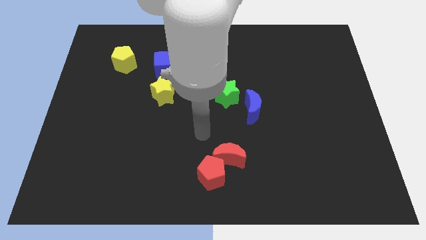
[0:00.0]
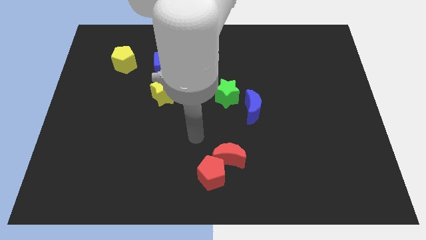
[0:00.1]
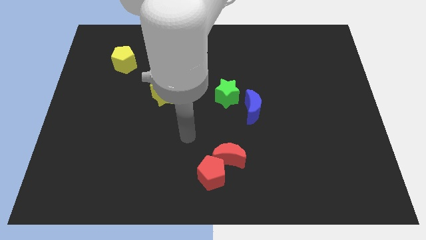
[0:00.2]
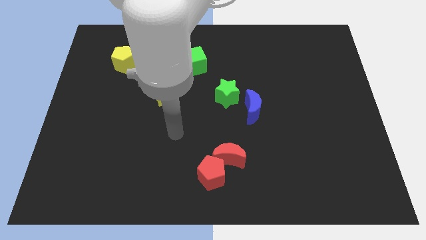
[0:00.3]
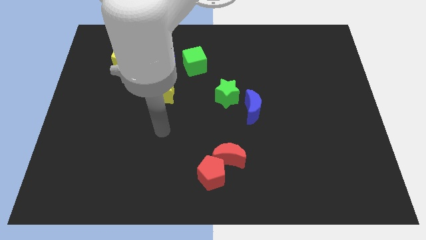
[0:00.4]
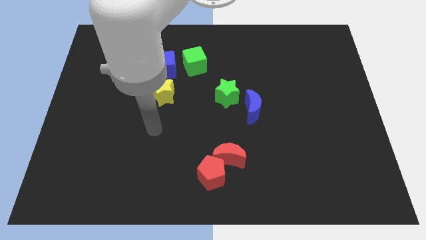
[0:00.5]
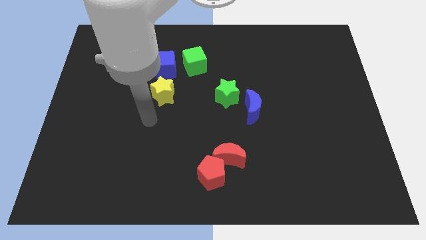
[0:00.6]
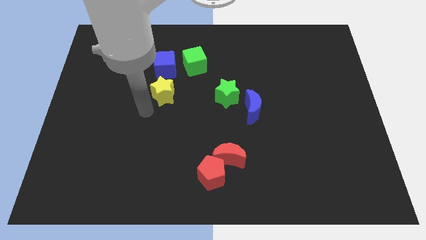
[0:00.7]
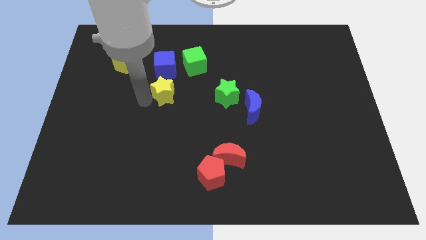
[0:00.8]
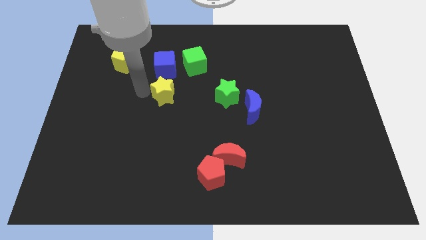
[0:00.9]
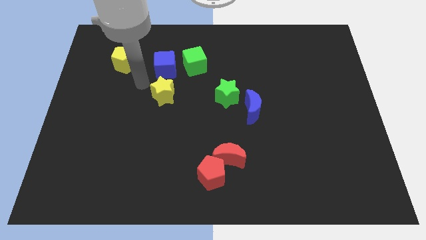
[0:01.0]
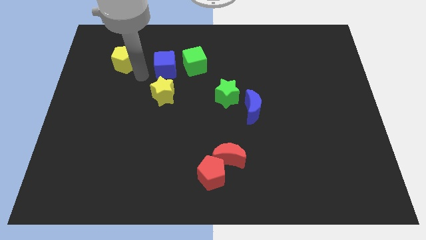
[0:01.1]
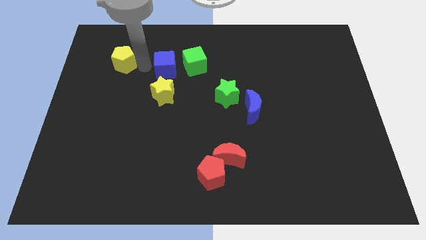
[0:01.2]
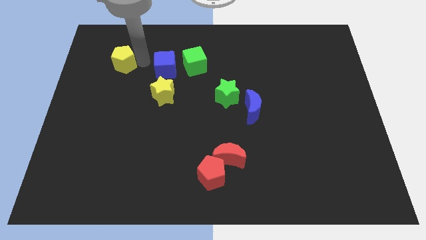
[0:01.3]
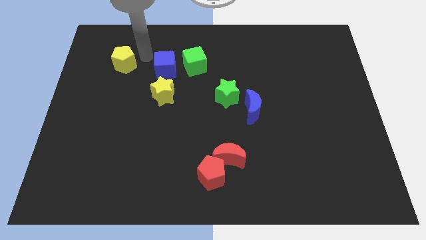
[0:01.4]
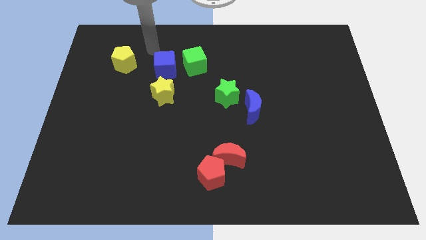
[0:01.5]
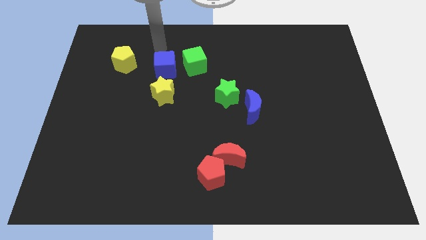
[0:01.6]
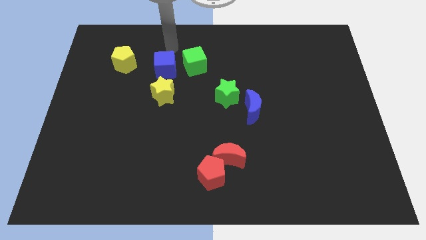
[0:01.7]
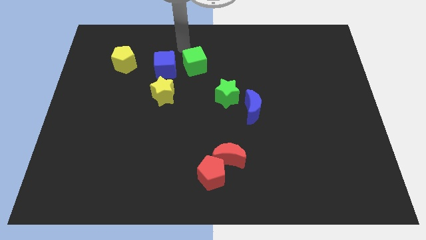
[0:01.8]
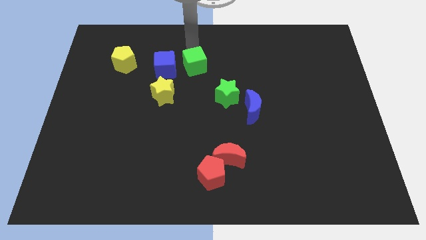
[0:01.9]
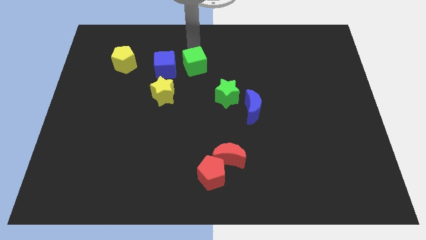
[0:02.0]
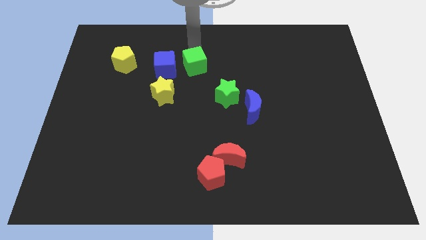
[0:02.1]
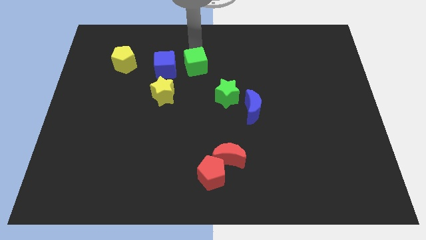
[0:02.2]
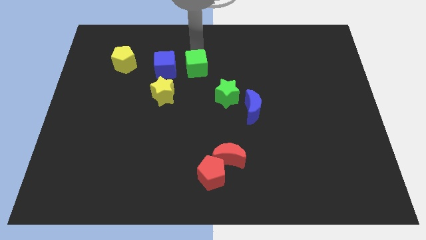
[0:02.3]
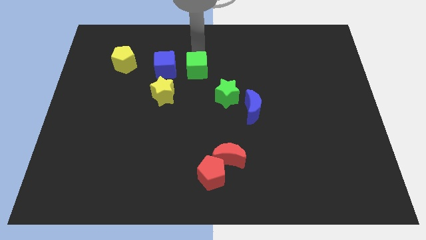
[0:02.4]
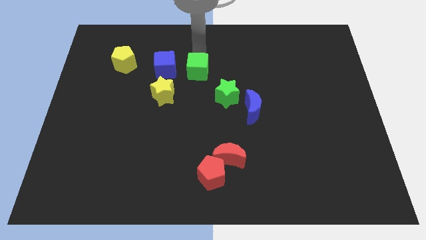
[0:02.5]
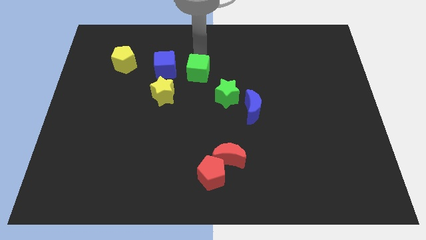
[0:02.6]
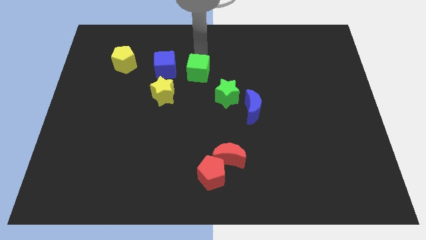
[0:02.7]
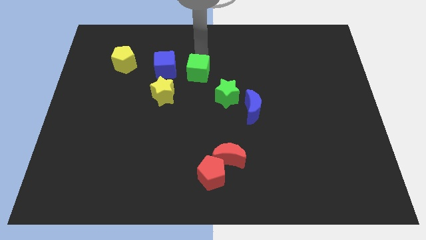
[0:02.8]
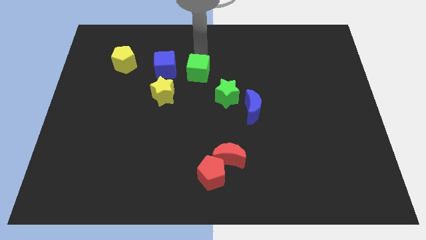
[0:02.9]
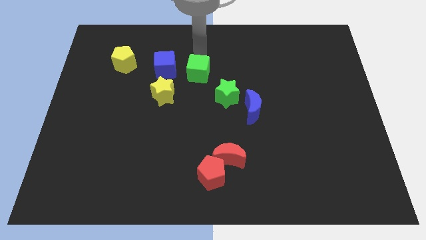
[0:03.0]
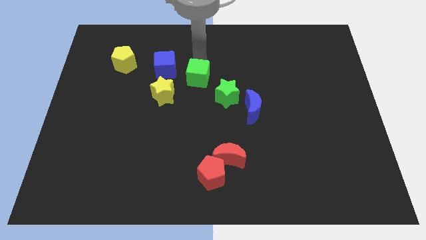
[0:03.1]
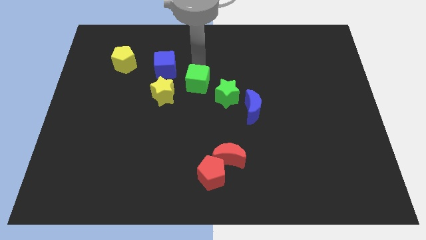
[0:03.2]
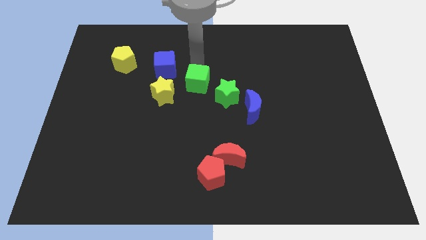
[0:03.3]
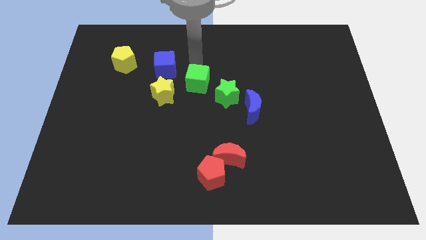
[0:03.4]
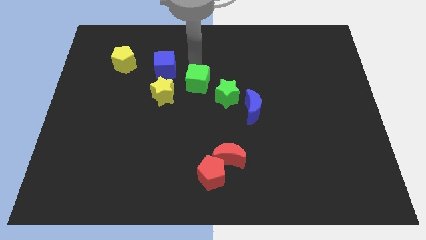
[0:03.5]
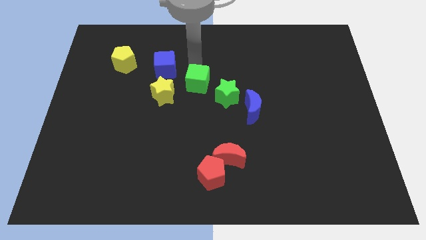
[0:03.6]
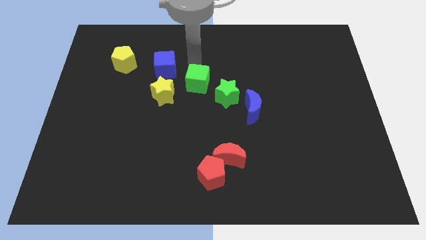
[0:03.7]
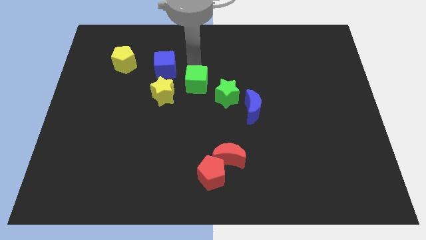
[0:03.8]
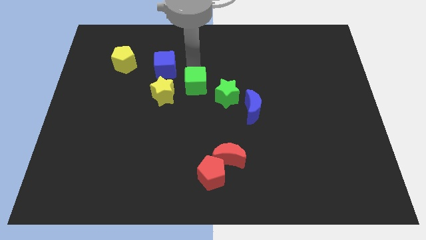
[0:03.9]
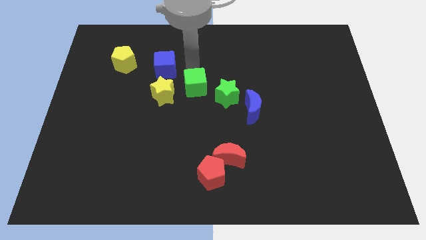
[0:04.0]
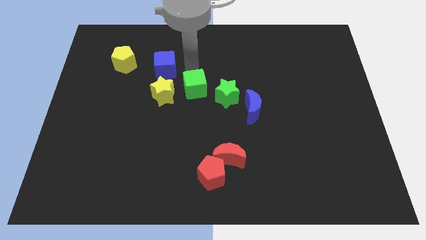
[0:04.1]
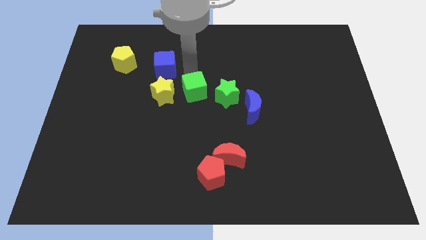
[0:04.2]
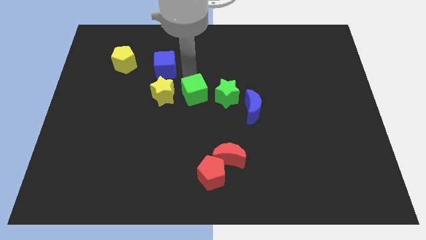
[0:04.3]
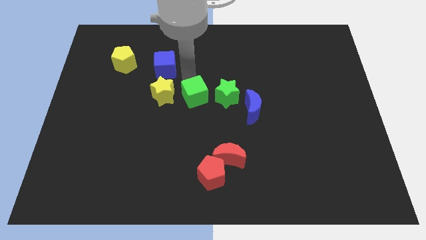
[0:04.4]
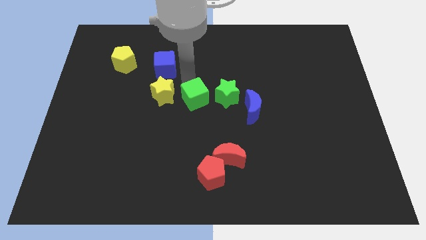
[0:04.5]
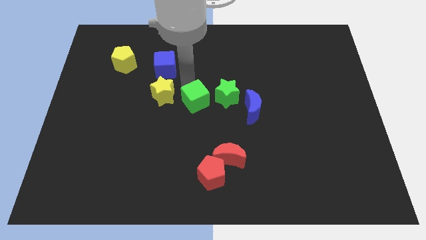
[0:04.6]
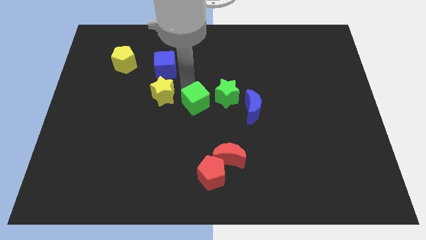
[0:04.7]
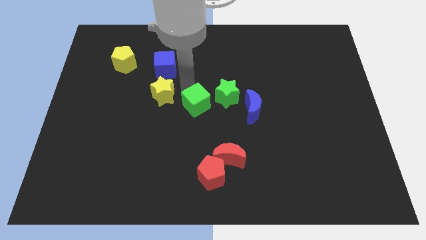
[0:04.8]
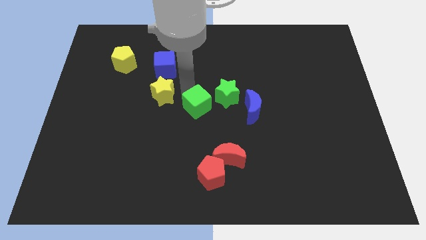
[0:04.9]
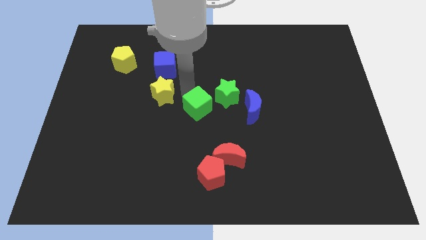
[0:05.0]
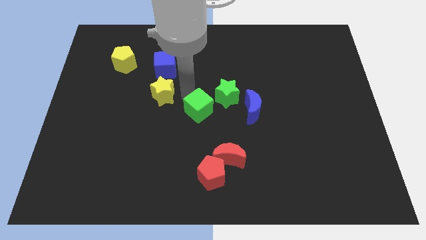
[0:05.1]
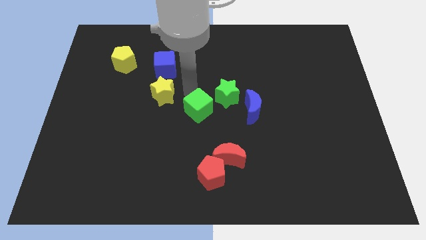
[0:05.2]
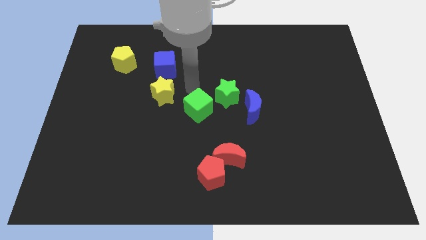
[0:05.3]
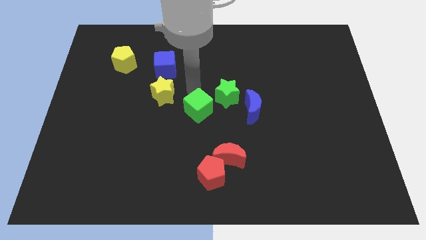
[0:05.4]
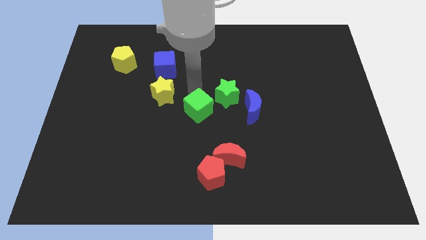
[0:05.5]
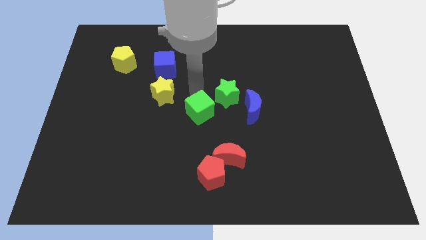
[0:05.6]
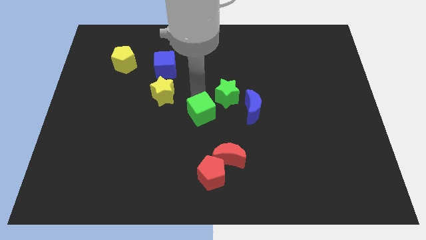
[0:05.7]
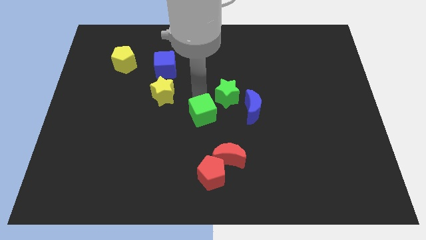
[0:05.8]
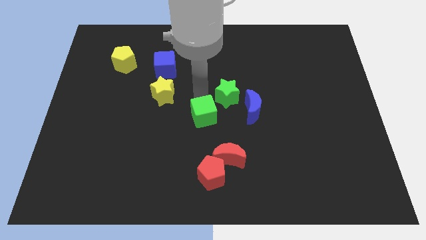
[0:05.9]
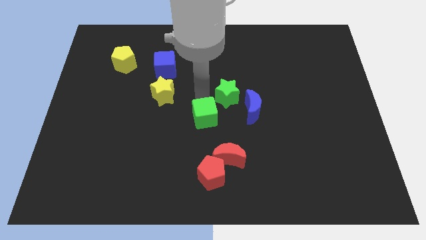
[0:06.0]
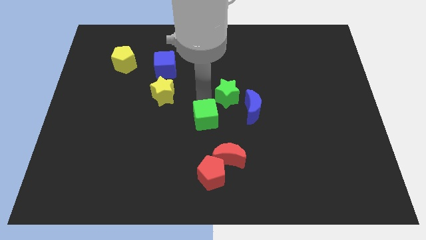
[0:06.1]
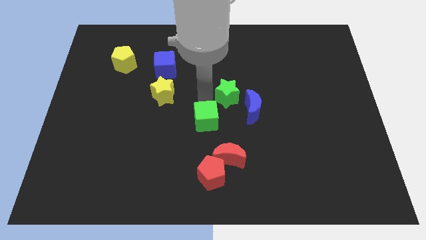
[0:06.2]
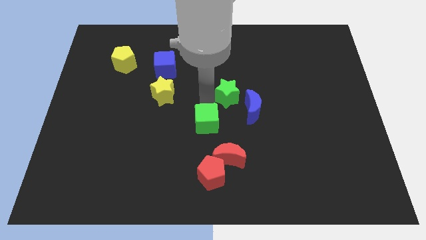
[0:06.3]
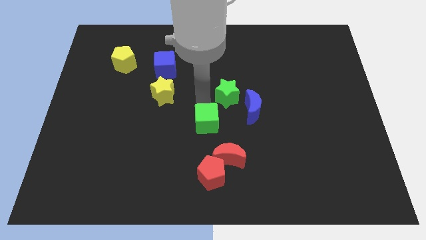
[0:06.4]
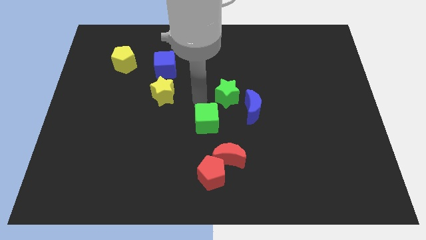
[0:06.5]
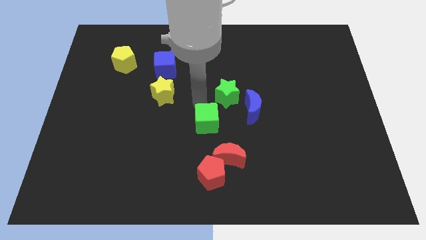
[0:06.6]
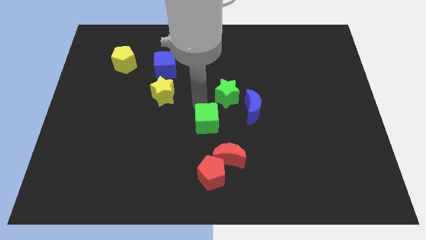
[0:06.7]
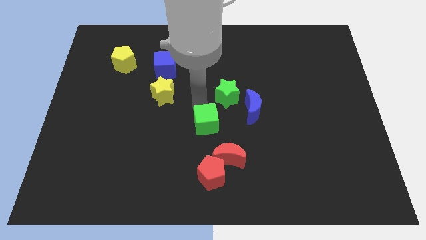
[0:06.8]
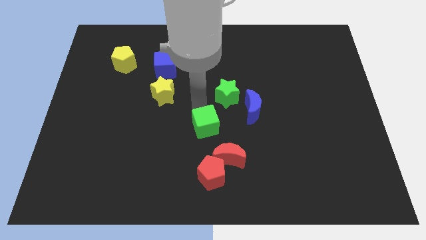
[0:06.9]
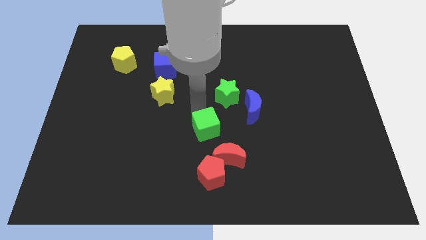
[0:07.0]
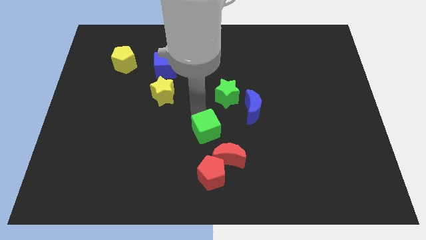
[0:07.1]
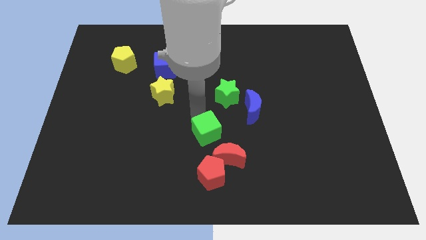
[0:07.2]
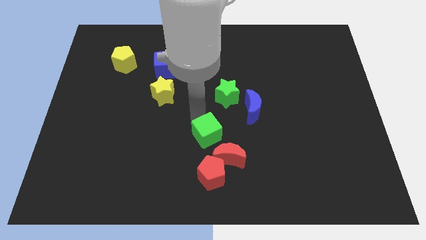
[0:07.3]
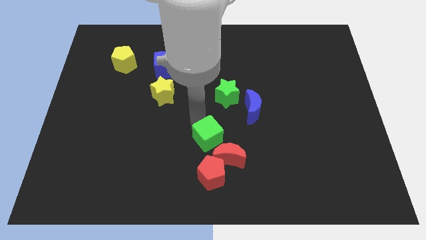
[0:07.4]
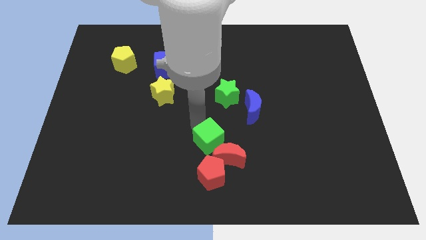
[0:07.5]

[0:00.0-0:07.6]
push the green cube next to the red moon
